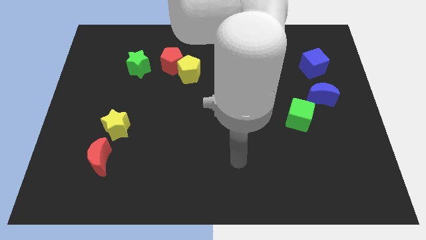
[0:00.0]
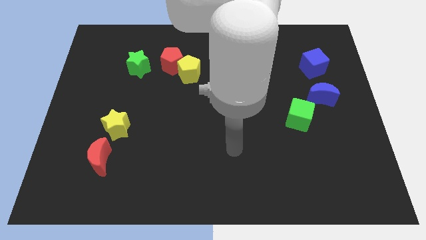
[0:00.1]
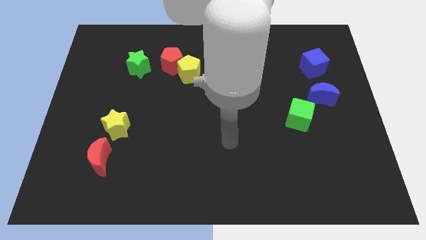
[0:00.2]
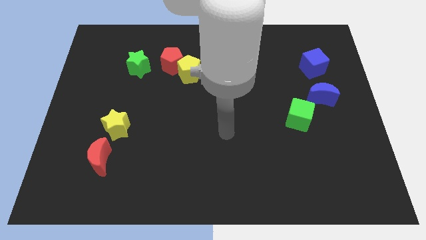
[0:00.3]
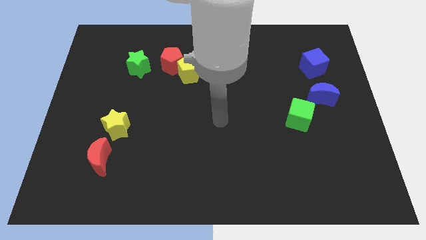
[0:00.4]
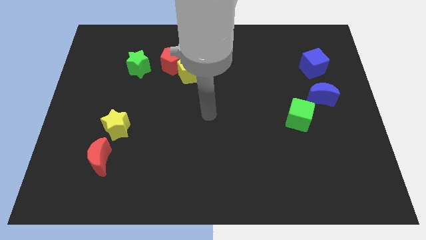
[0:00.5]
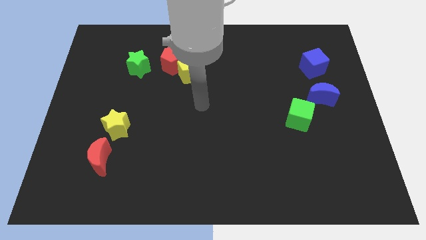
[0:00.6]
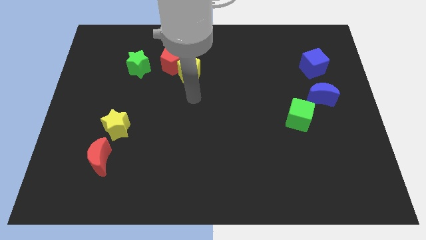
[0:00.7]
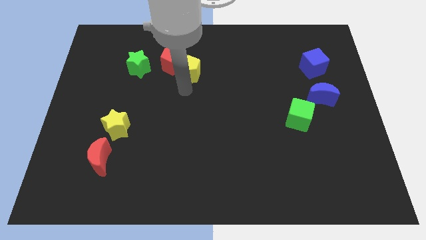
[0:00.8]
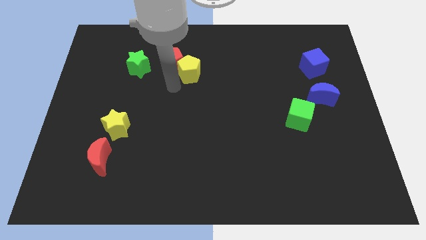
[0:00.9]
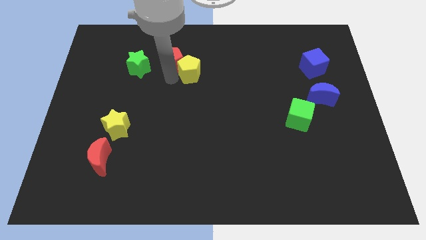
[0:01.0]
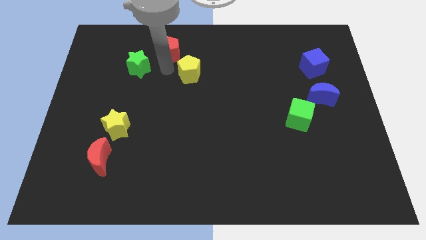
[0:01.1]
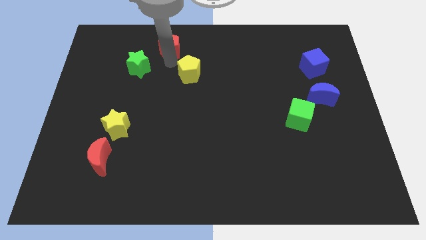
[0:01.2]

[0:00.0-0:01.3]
pull the yellow pentagon apart from the red pentagon

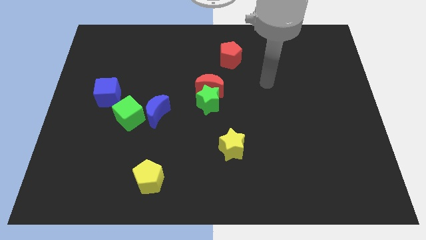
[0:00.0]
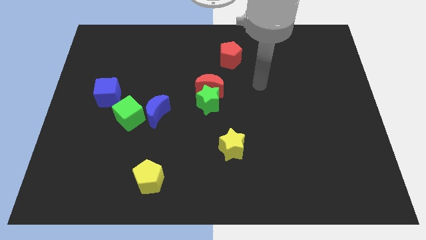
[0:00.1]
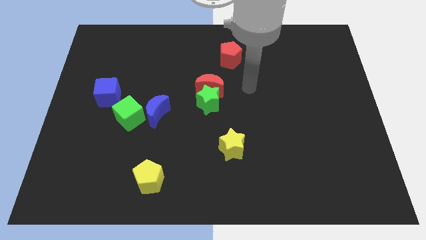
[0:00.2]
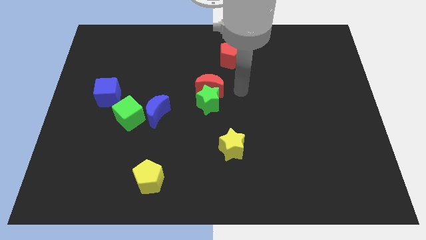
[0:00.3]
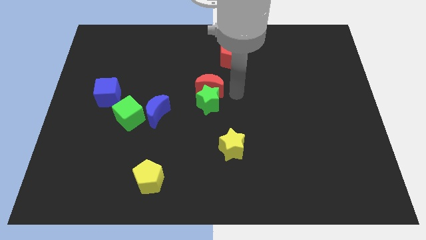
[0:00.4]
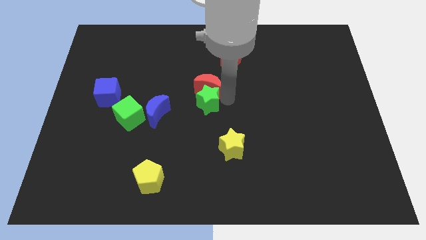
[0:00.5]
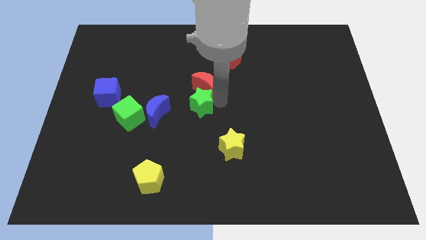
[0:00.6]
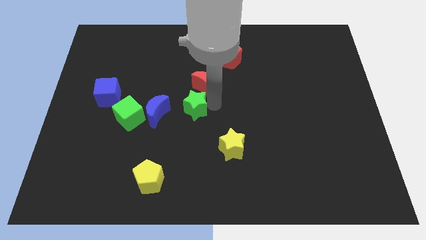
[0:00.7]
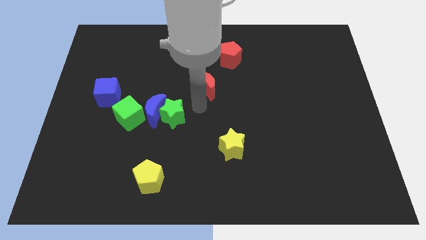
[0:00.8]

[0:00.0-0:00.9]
separate the red moon from the green star

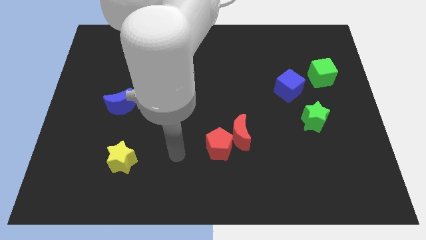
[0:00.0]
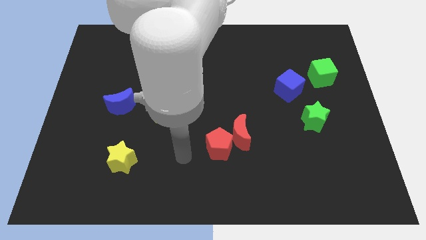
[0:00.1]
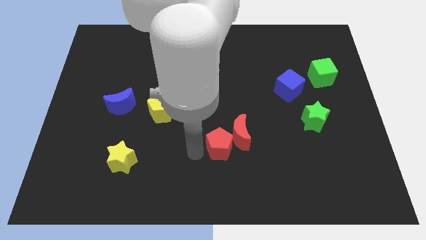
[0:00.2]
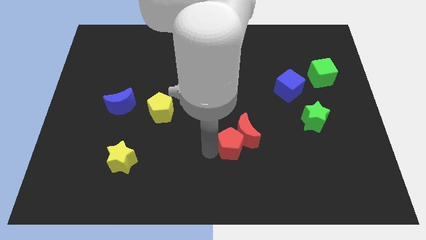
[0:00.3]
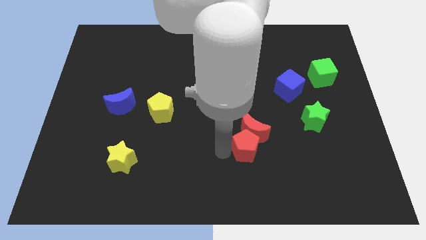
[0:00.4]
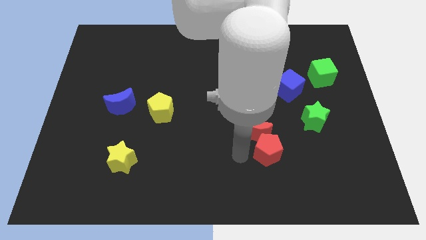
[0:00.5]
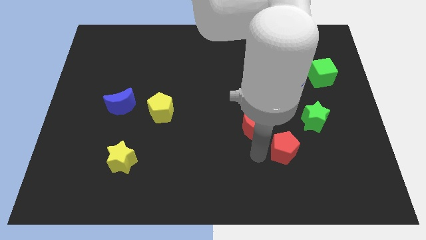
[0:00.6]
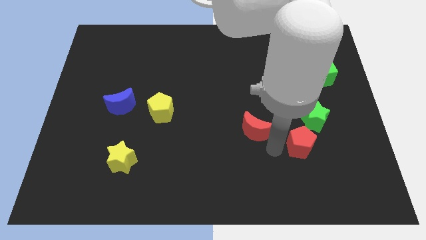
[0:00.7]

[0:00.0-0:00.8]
pull the red moon apart from the red pentagon

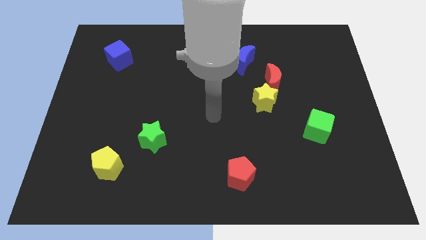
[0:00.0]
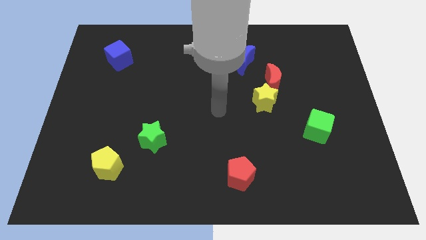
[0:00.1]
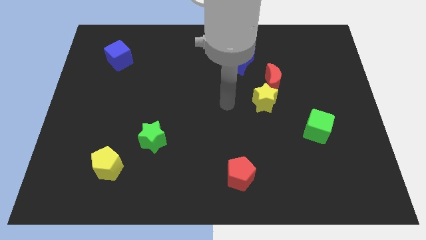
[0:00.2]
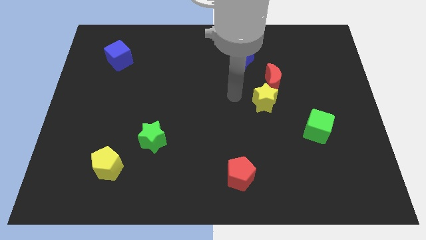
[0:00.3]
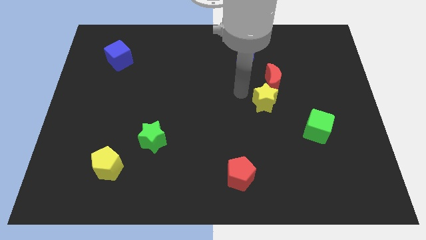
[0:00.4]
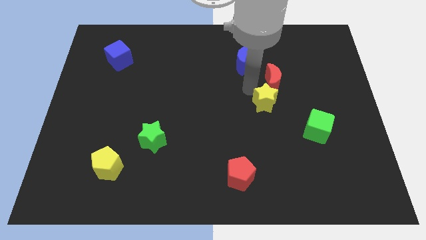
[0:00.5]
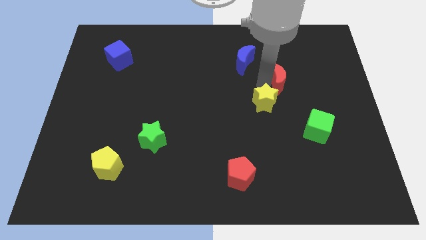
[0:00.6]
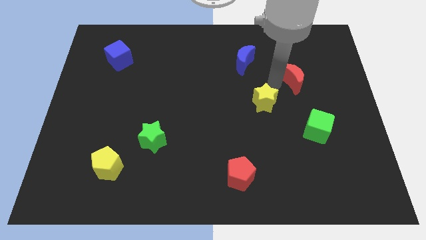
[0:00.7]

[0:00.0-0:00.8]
move the yellow star away from the red moon

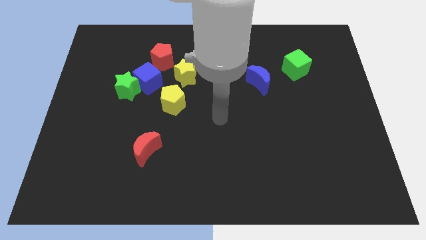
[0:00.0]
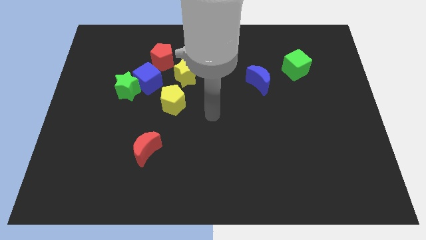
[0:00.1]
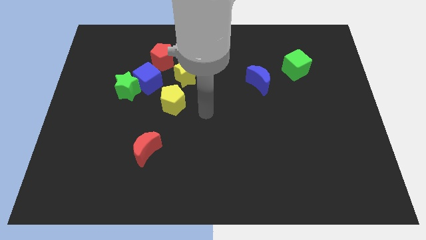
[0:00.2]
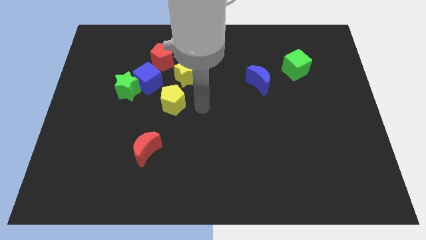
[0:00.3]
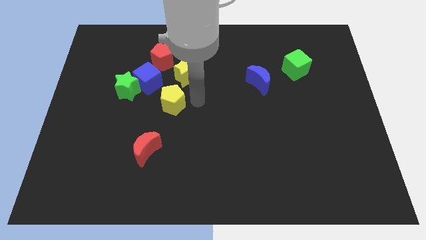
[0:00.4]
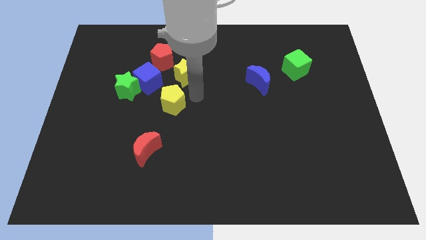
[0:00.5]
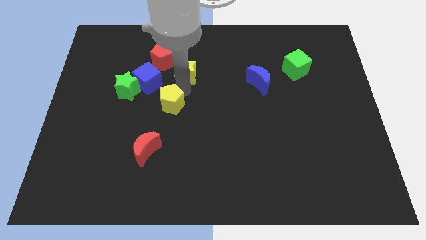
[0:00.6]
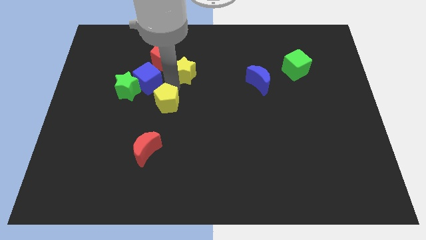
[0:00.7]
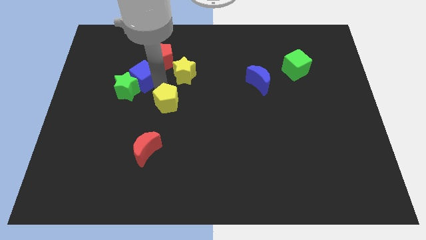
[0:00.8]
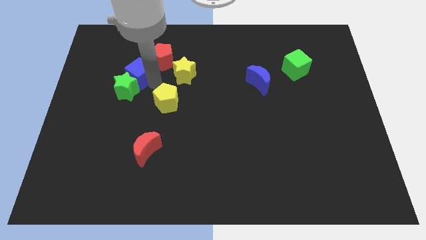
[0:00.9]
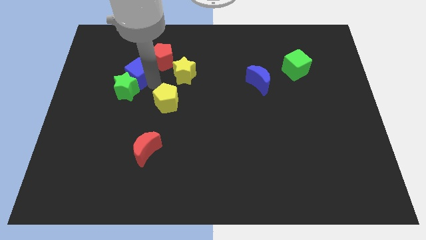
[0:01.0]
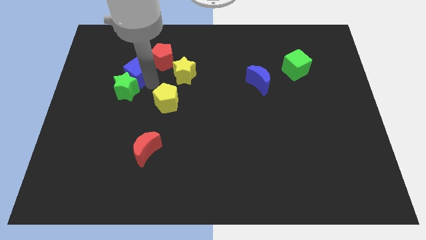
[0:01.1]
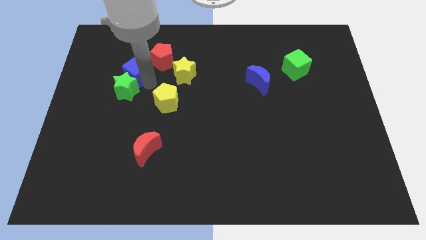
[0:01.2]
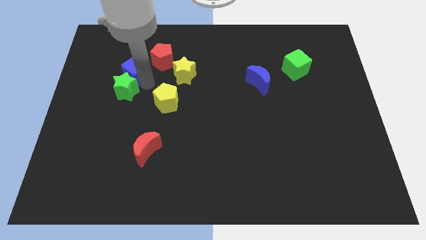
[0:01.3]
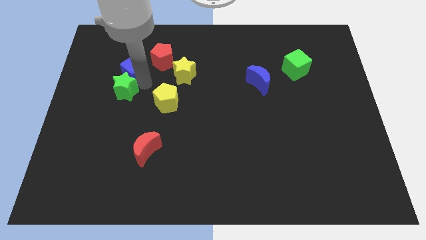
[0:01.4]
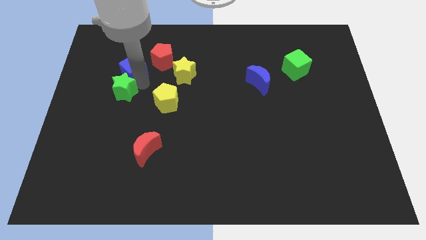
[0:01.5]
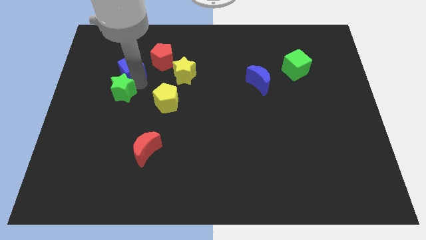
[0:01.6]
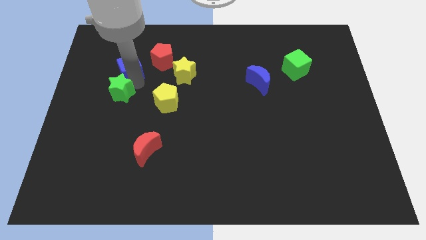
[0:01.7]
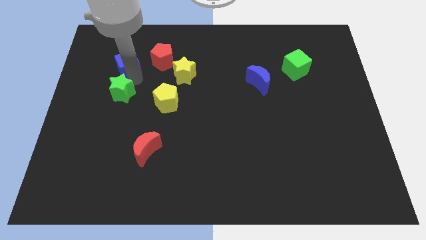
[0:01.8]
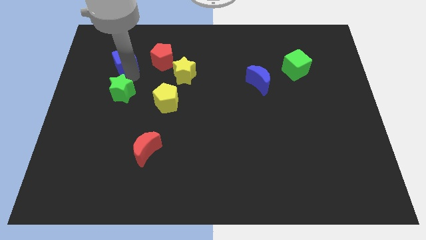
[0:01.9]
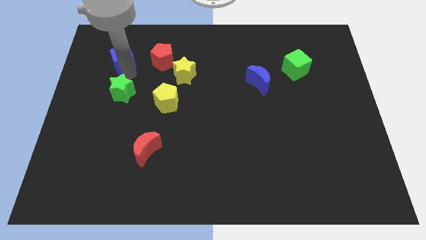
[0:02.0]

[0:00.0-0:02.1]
separate the green star from the blue cube

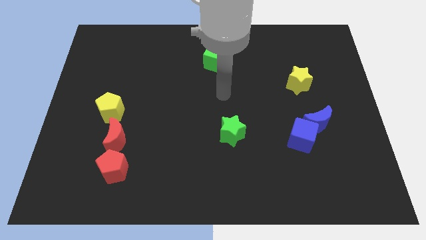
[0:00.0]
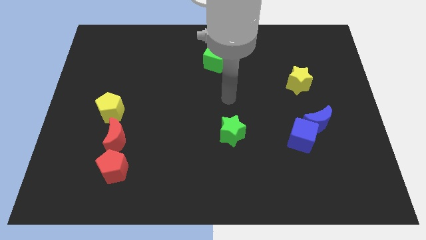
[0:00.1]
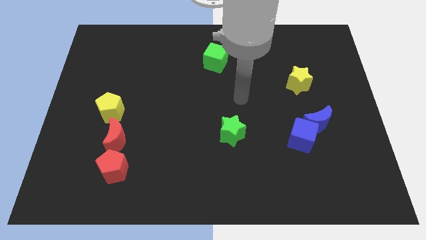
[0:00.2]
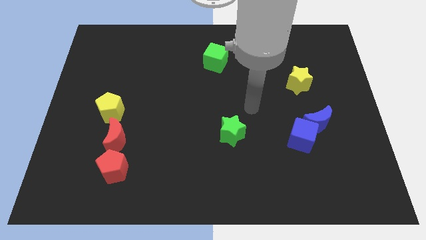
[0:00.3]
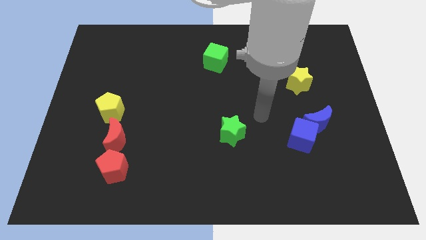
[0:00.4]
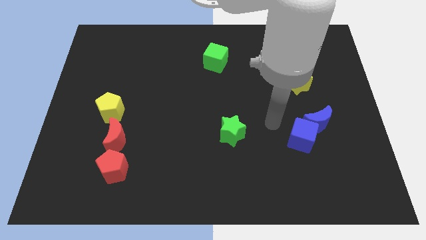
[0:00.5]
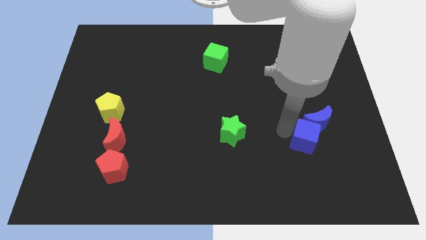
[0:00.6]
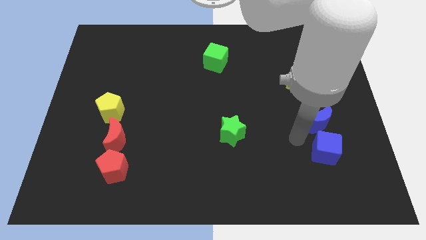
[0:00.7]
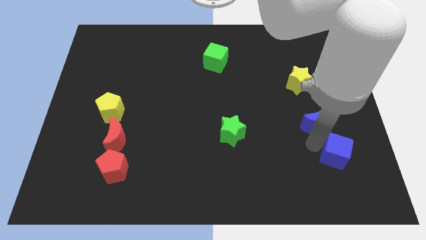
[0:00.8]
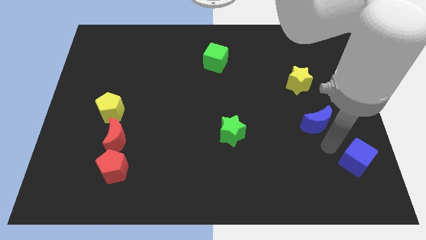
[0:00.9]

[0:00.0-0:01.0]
move the blue moon away from the blue cube

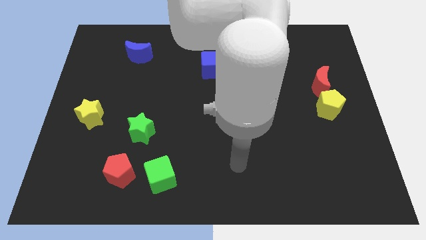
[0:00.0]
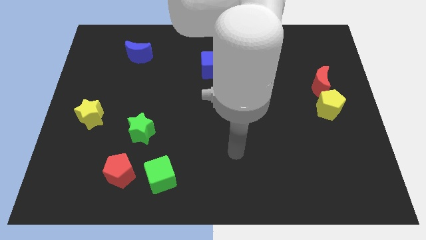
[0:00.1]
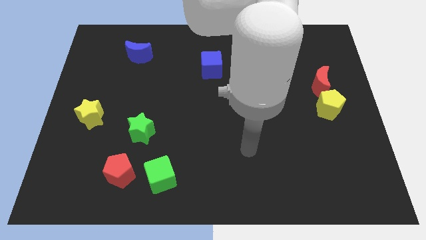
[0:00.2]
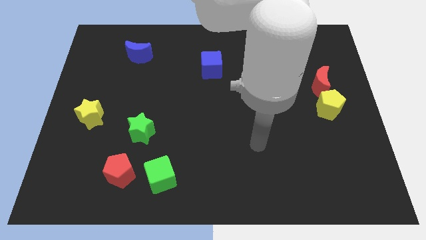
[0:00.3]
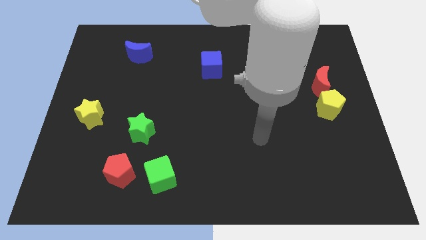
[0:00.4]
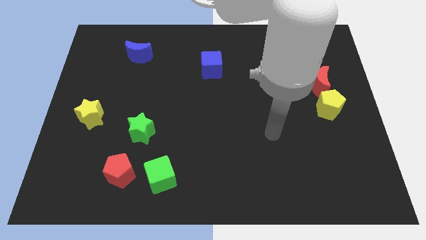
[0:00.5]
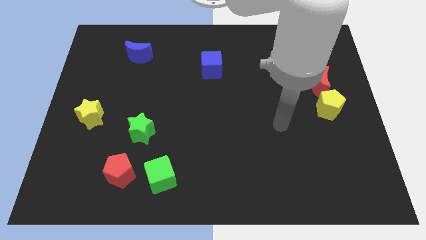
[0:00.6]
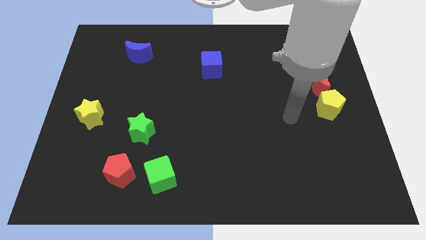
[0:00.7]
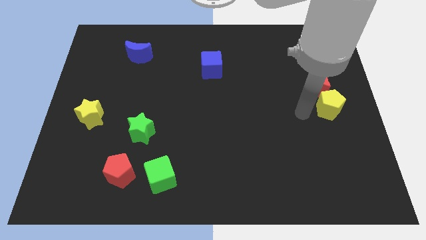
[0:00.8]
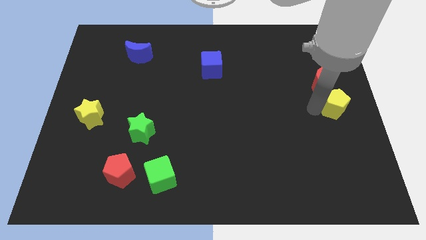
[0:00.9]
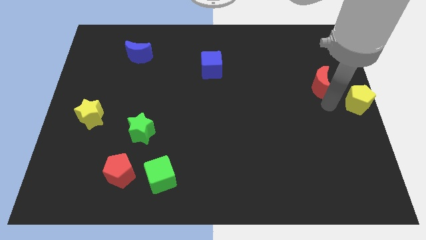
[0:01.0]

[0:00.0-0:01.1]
pull the red moon apart from the yellow pentagon

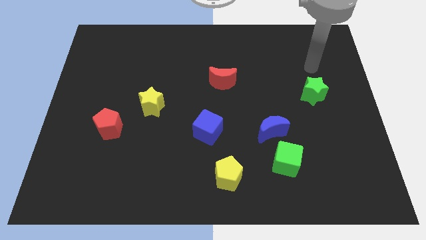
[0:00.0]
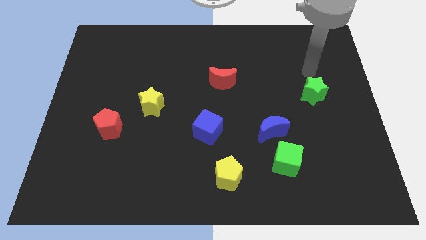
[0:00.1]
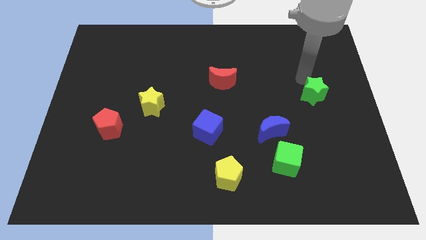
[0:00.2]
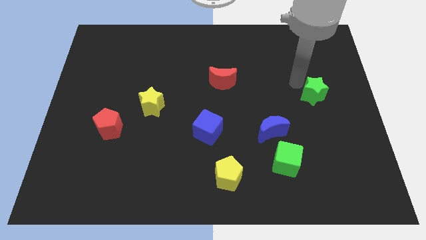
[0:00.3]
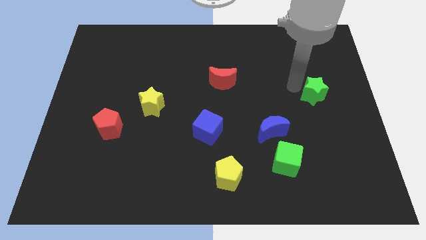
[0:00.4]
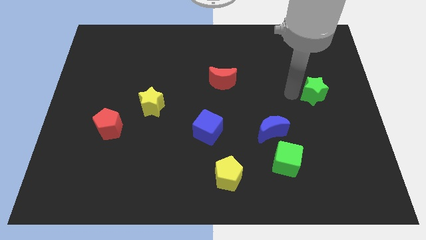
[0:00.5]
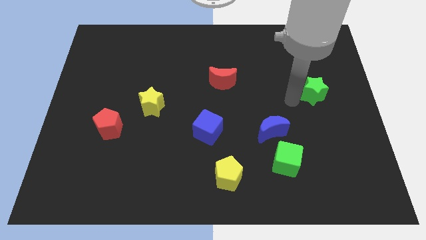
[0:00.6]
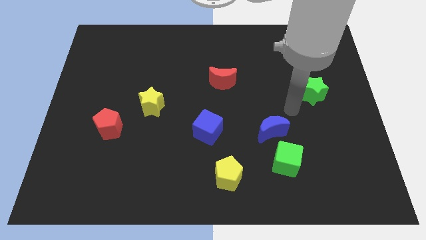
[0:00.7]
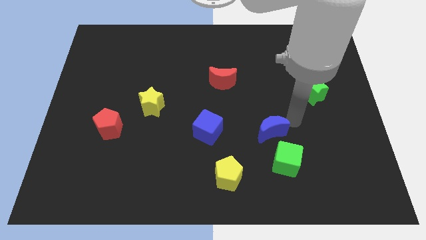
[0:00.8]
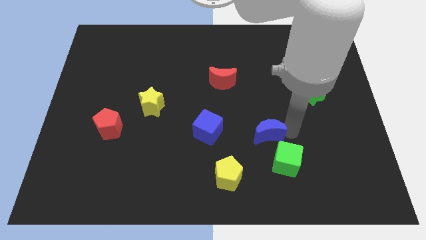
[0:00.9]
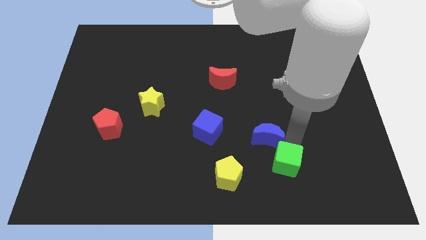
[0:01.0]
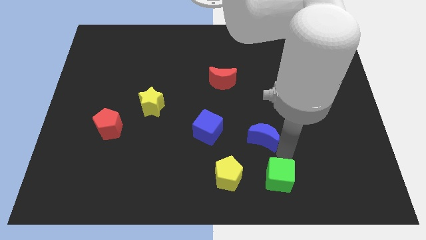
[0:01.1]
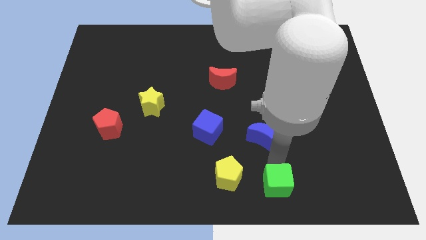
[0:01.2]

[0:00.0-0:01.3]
separate the blue moon from the green cube
